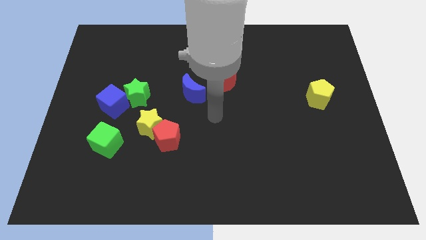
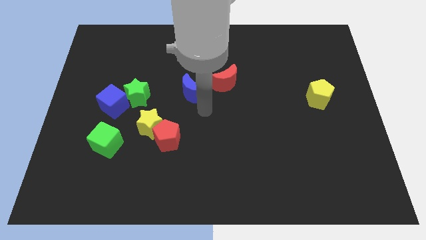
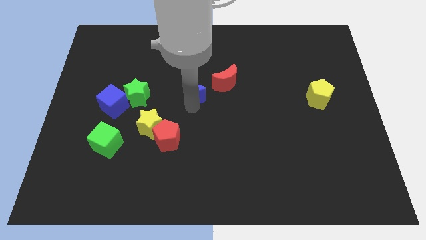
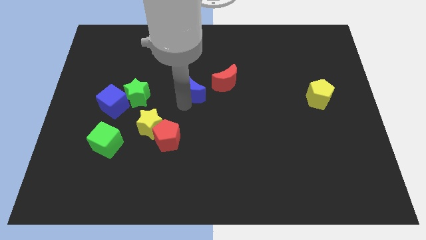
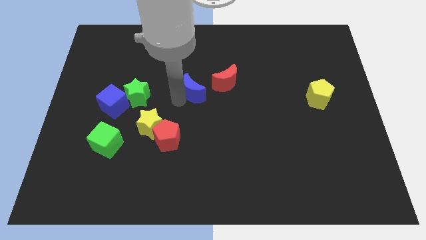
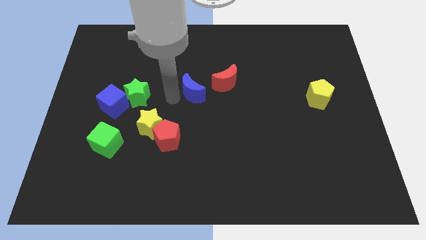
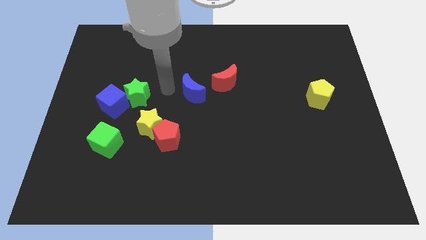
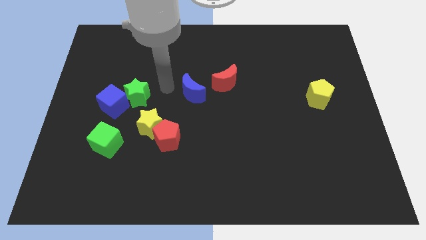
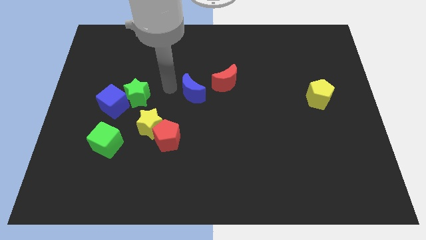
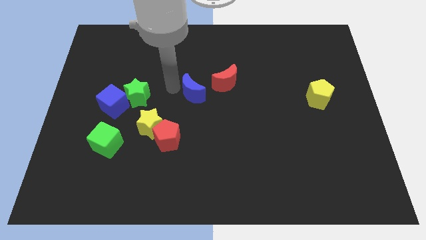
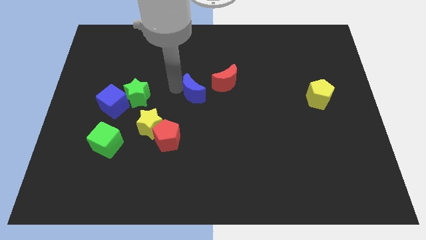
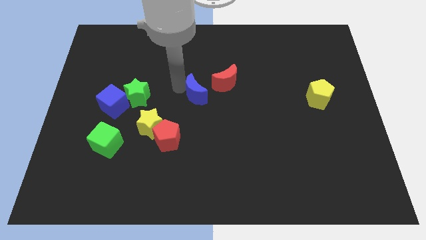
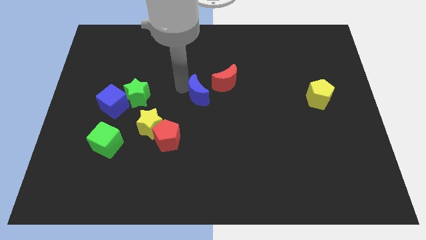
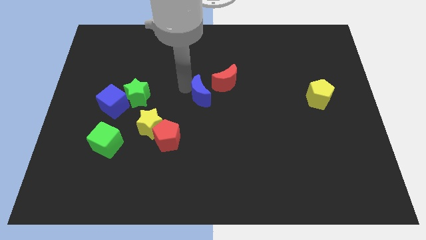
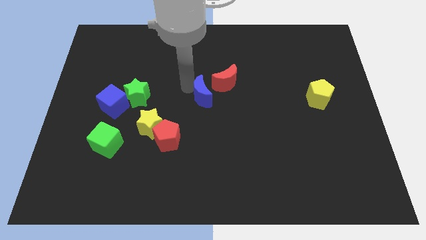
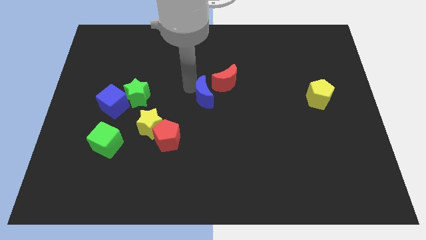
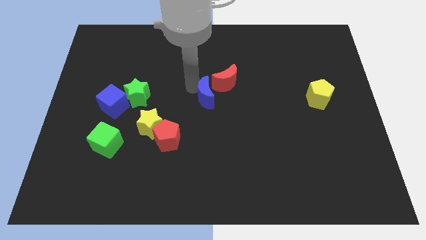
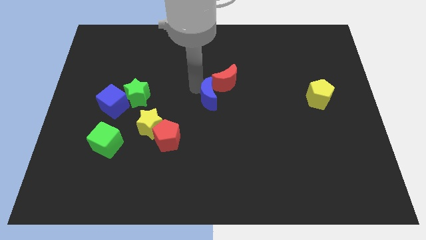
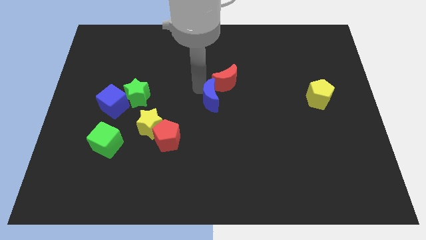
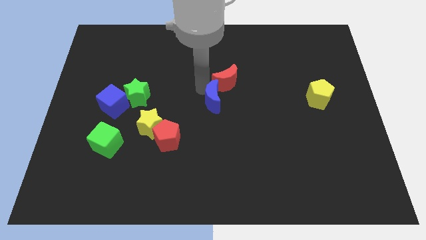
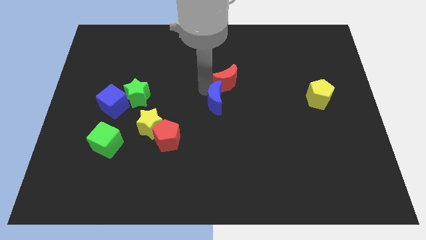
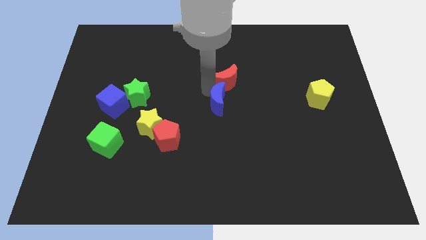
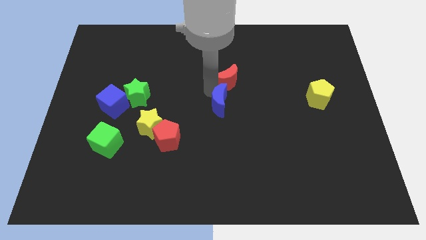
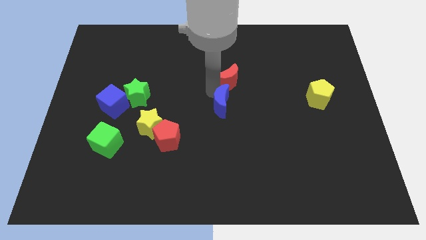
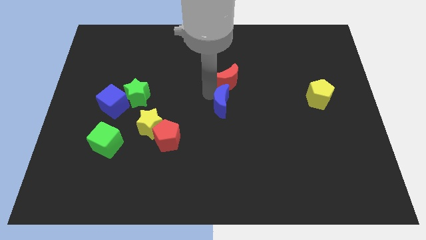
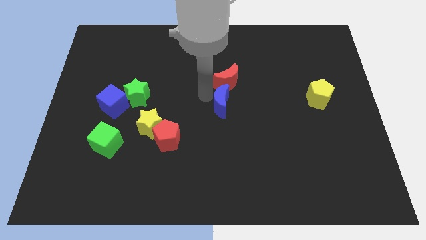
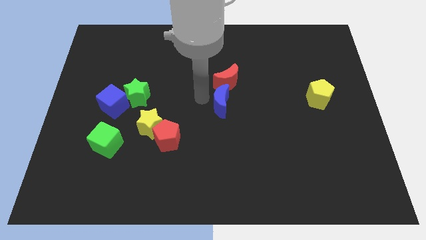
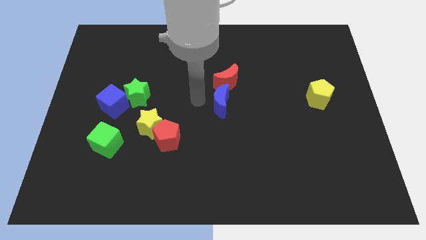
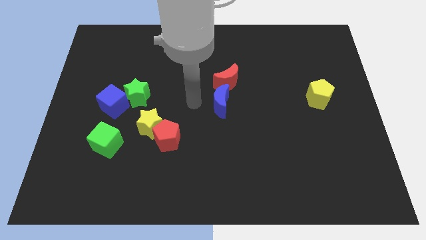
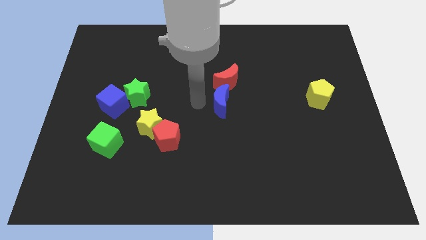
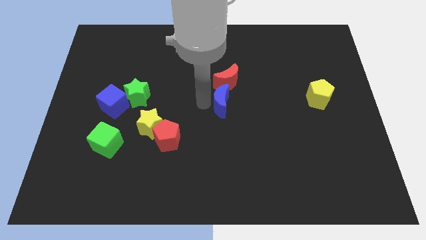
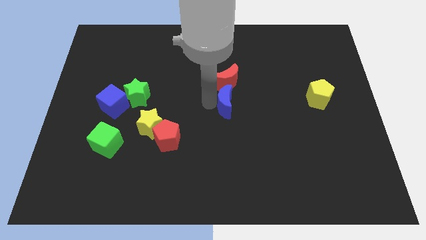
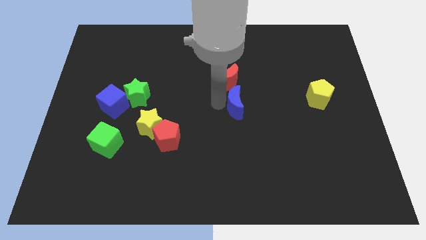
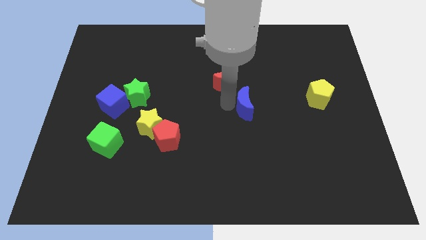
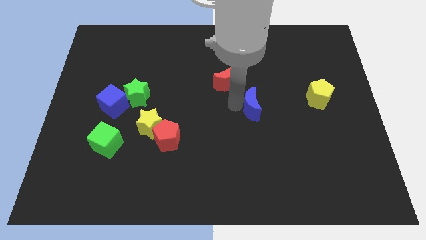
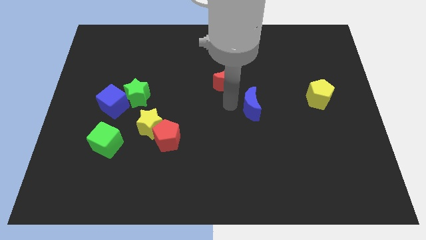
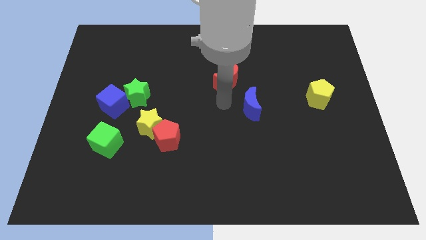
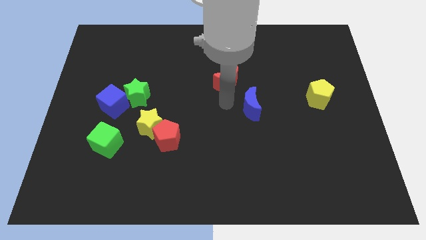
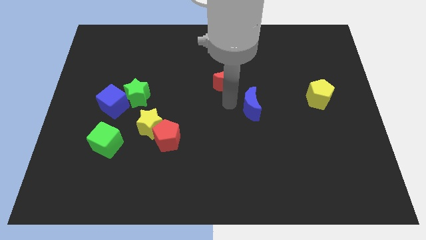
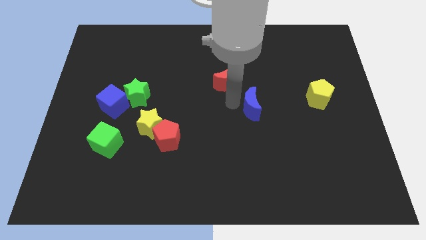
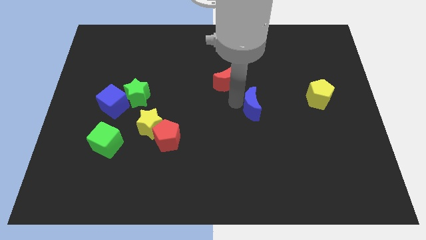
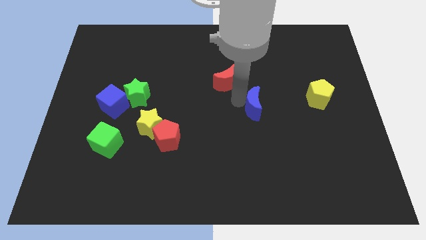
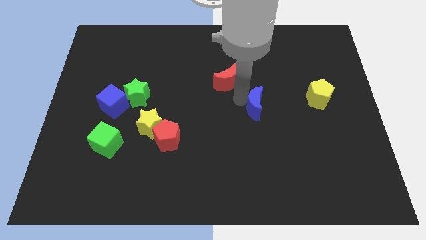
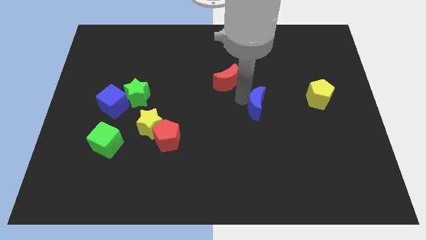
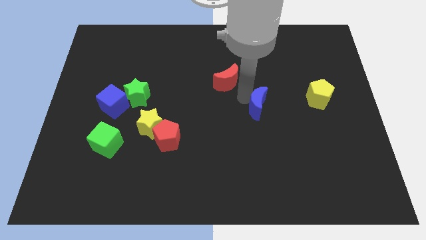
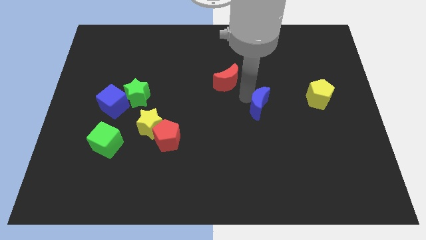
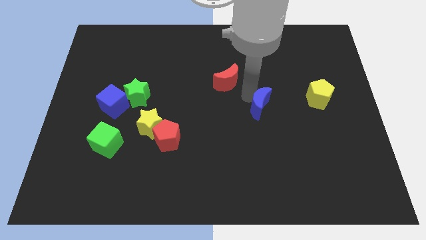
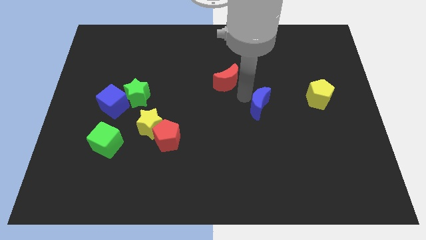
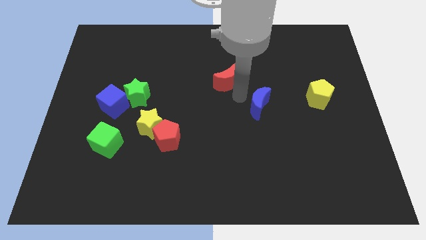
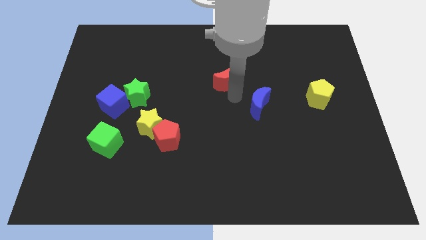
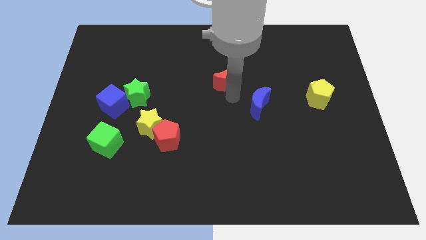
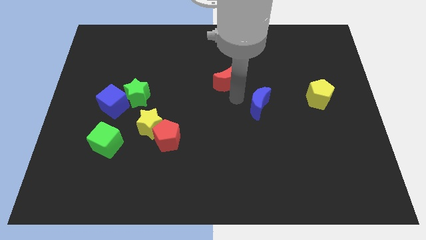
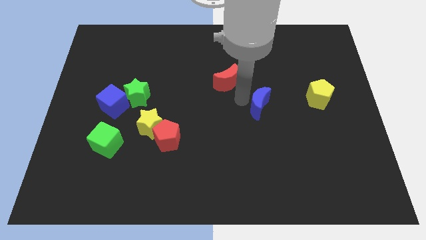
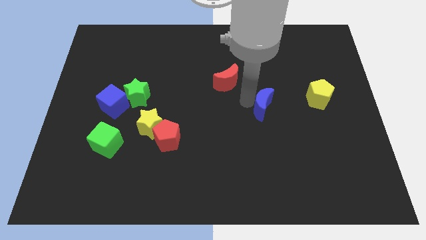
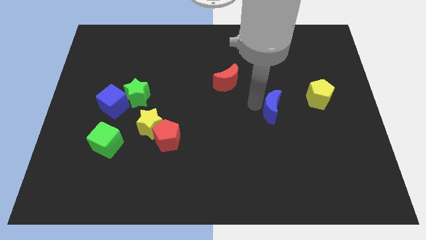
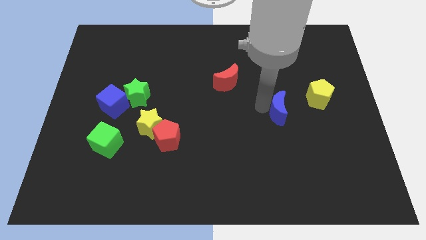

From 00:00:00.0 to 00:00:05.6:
put the blue moon to the bottom left side of the yellow pentagon

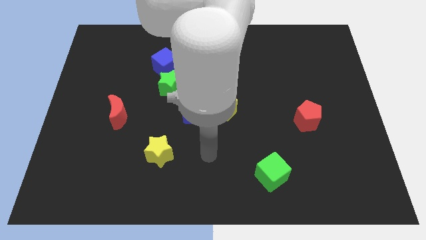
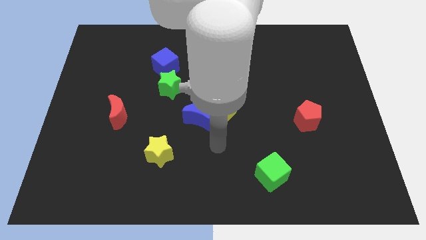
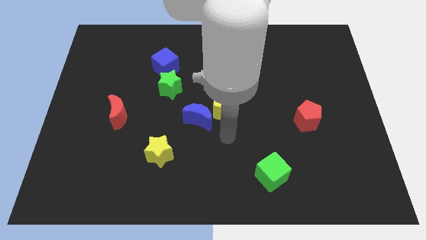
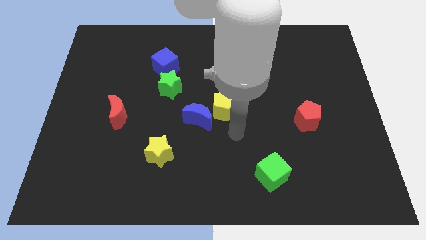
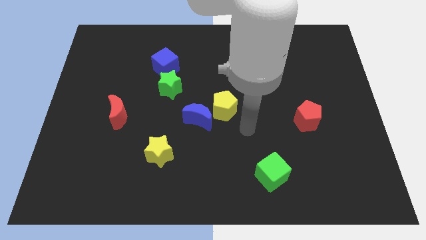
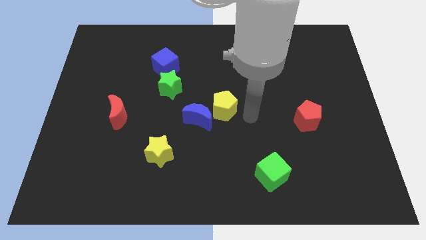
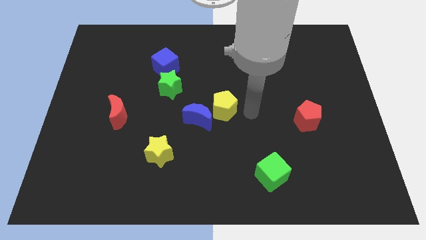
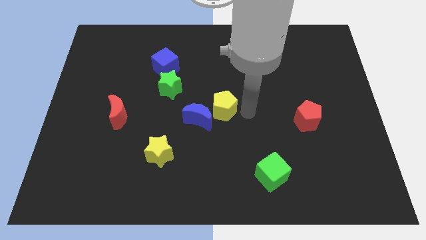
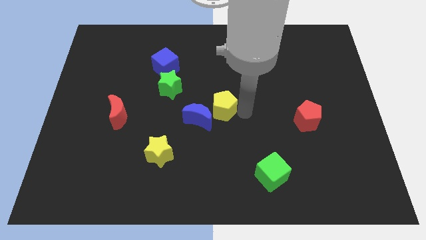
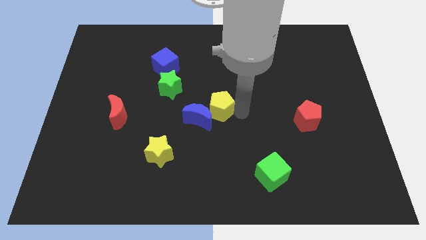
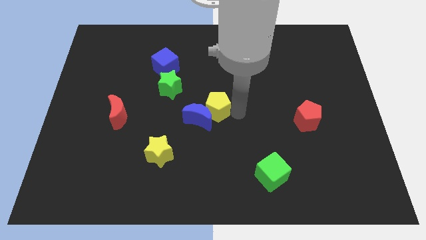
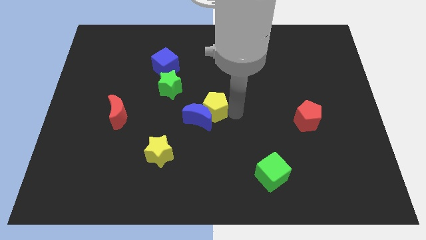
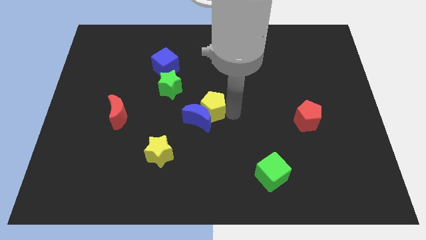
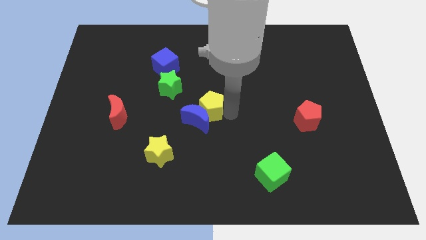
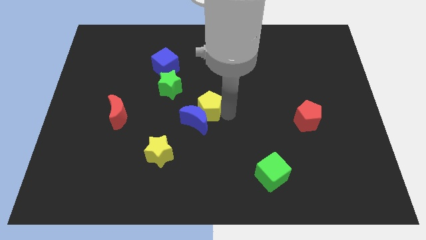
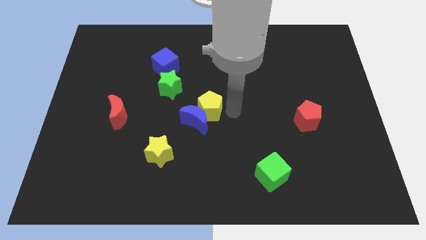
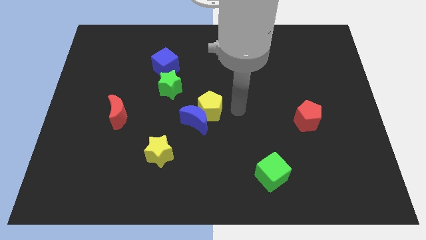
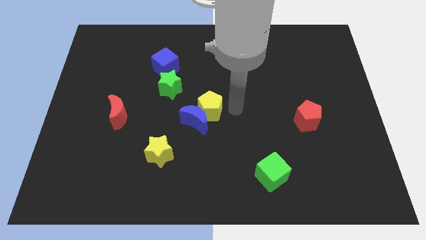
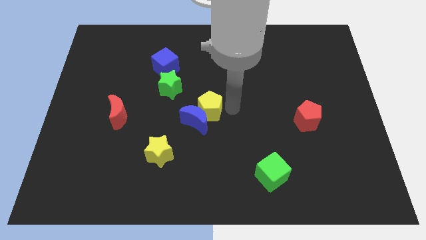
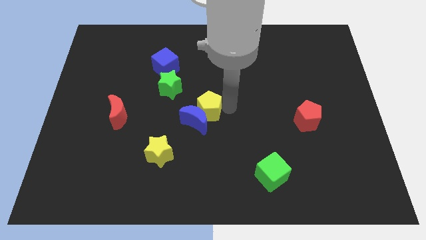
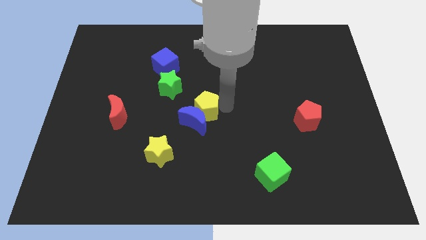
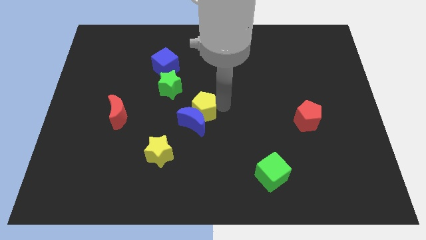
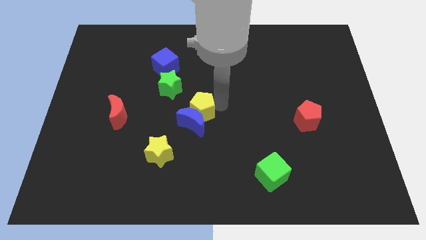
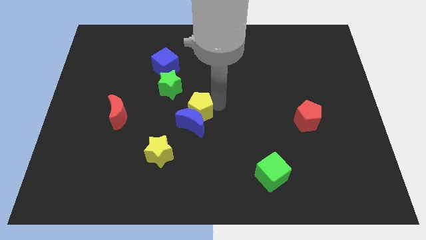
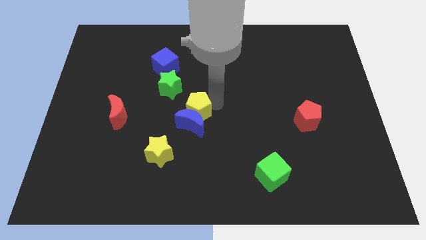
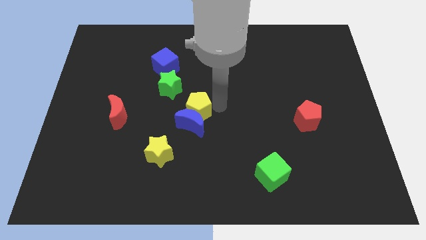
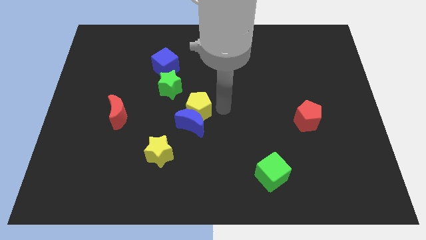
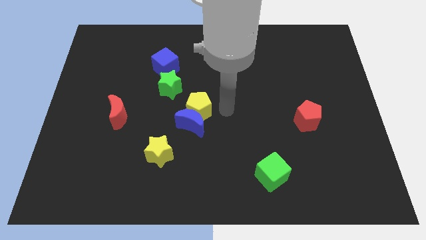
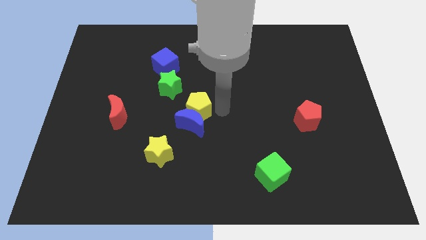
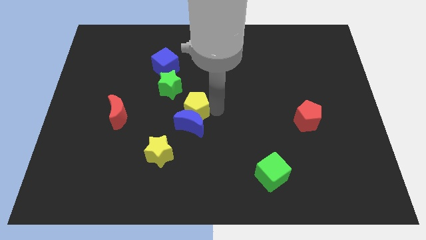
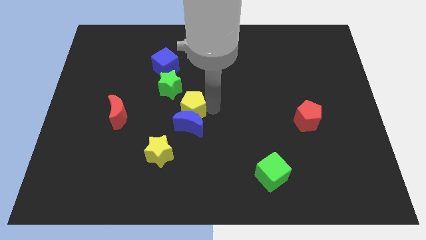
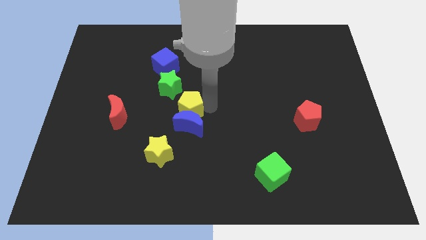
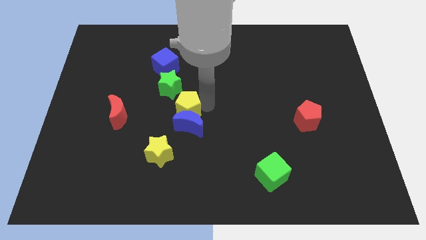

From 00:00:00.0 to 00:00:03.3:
slide the yellow pentagon just right of the red moon
